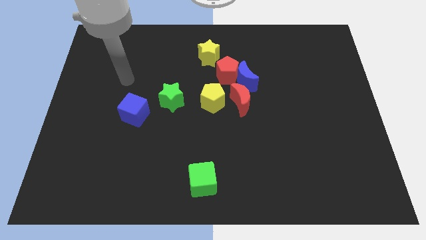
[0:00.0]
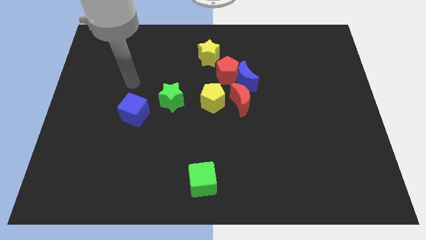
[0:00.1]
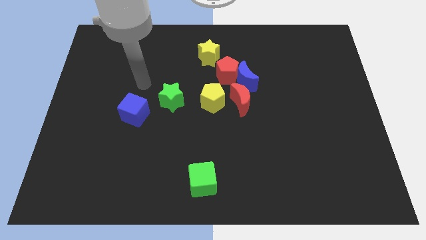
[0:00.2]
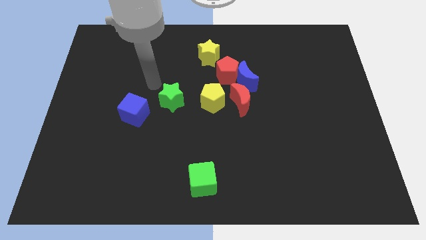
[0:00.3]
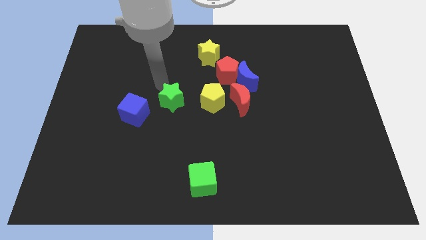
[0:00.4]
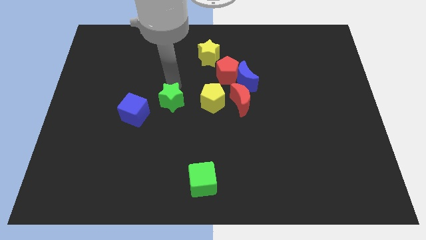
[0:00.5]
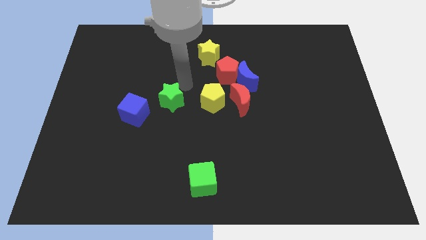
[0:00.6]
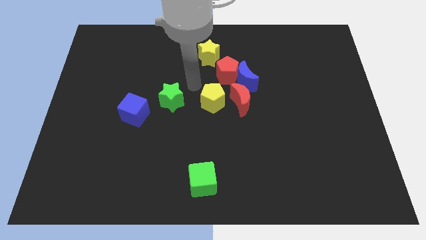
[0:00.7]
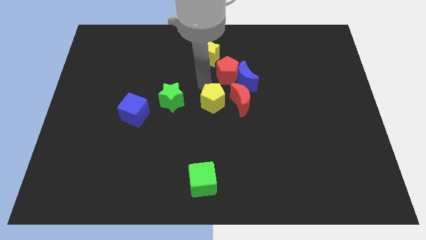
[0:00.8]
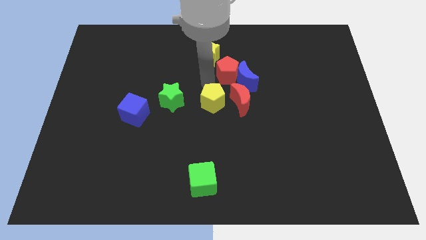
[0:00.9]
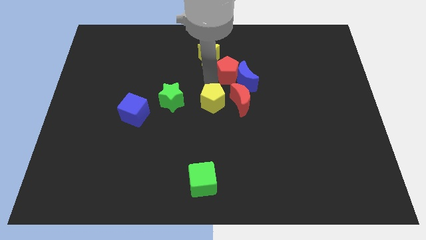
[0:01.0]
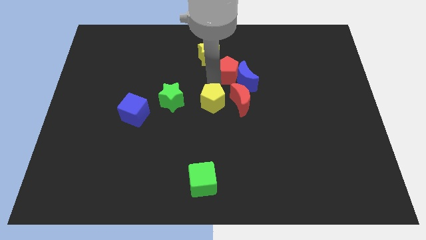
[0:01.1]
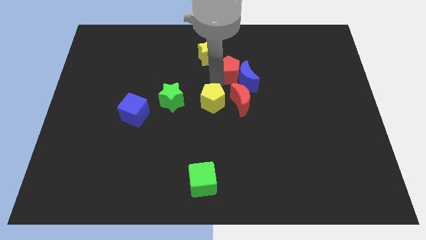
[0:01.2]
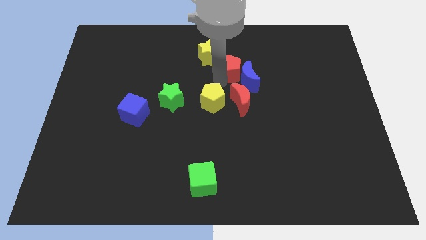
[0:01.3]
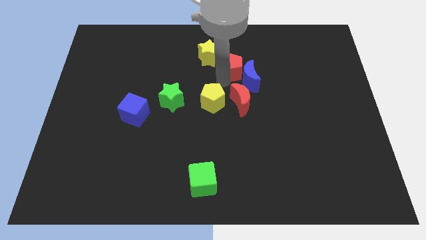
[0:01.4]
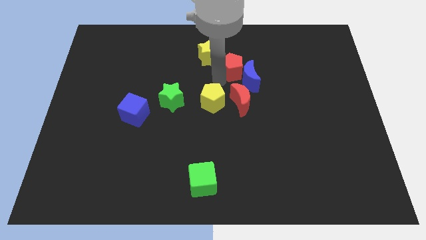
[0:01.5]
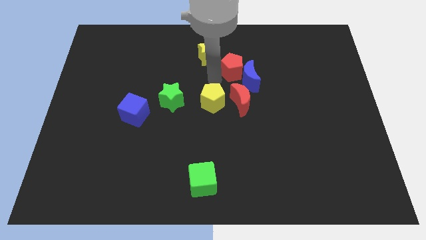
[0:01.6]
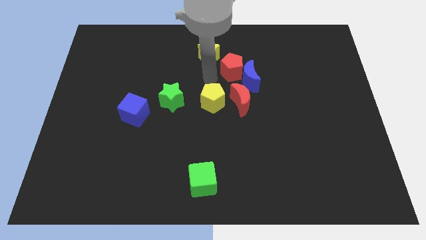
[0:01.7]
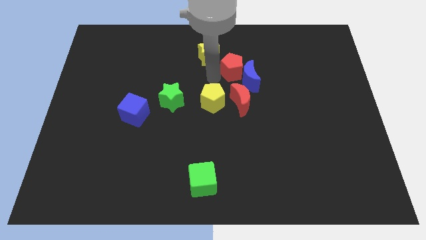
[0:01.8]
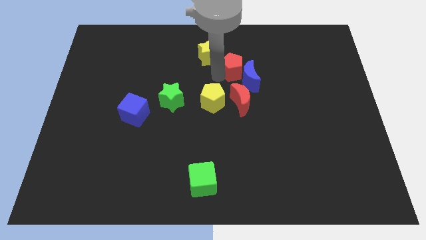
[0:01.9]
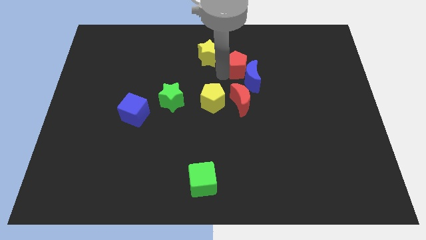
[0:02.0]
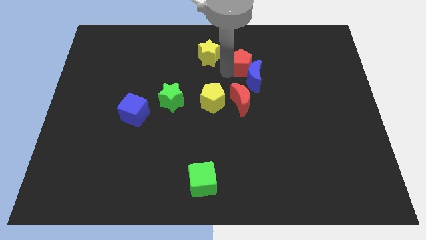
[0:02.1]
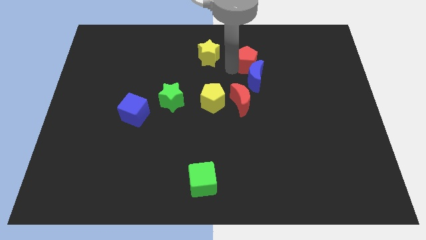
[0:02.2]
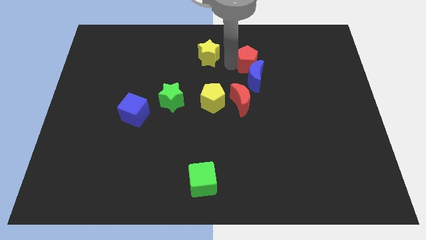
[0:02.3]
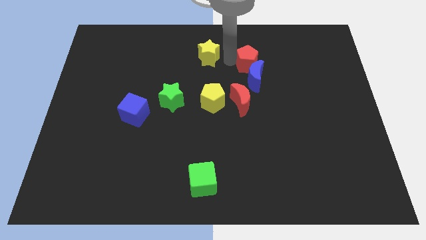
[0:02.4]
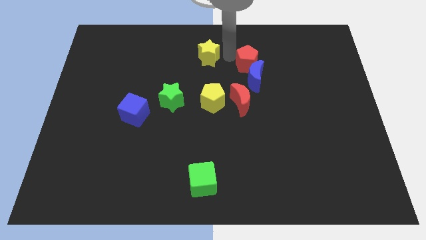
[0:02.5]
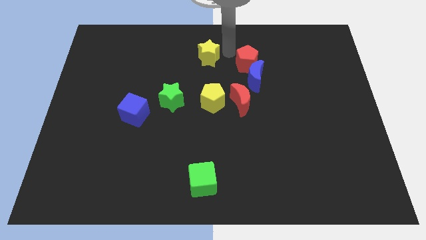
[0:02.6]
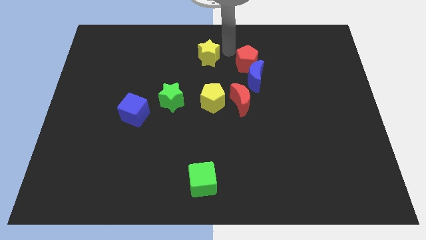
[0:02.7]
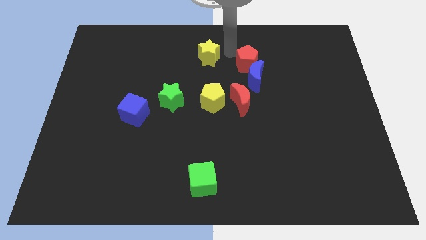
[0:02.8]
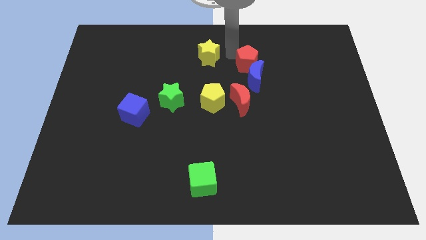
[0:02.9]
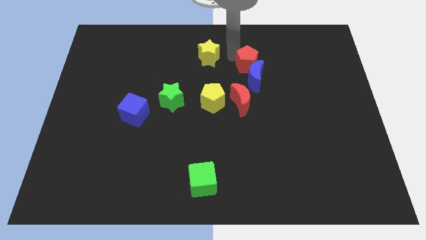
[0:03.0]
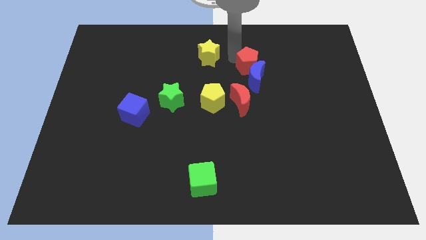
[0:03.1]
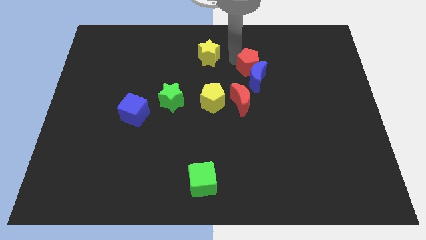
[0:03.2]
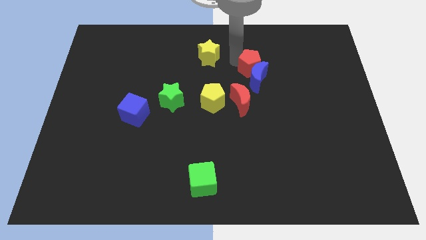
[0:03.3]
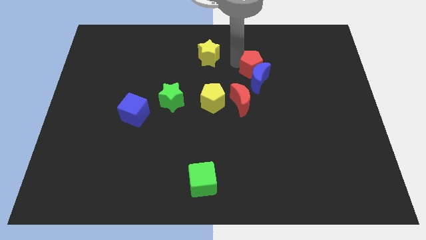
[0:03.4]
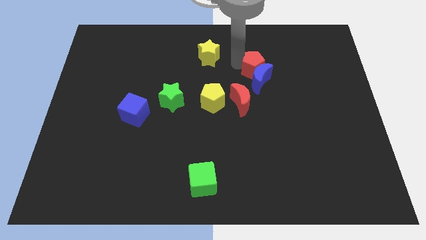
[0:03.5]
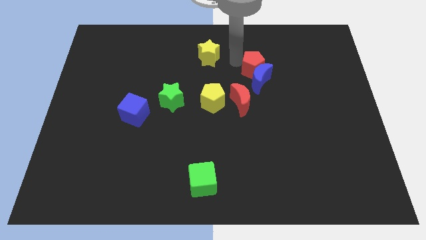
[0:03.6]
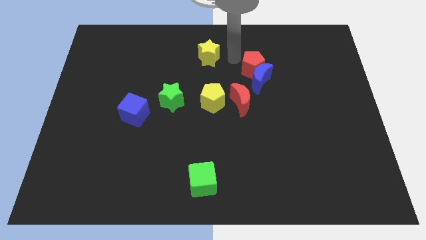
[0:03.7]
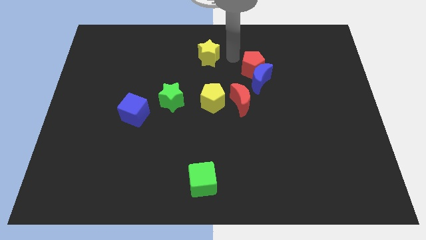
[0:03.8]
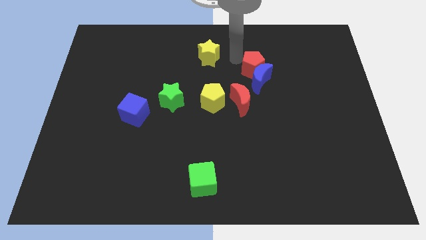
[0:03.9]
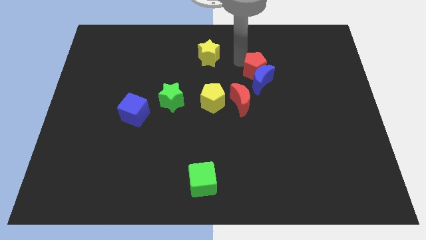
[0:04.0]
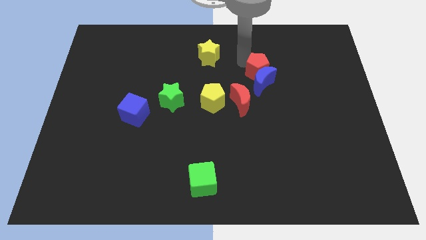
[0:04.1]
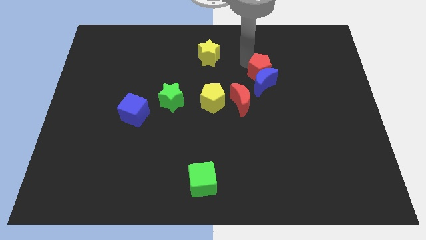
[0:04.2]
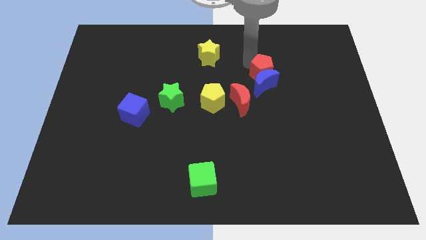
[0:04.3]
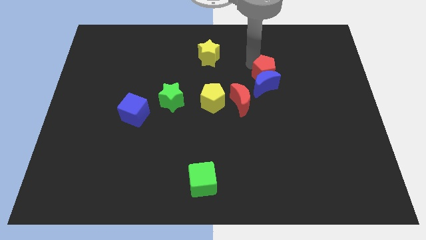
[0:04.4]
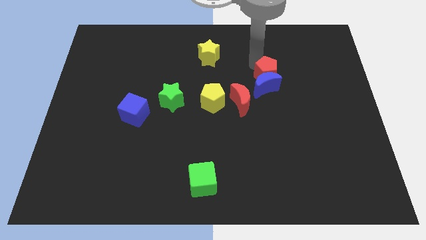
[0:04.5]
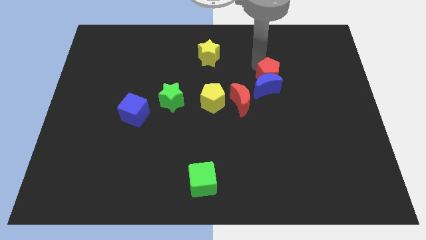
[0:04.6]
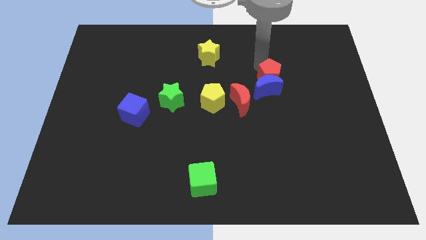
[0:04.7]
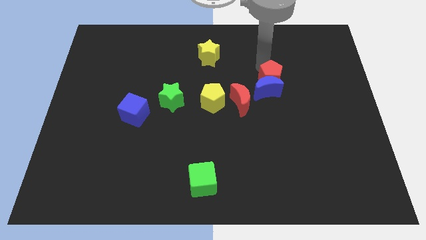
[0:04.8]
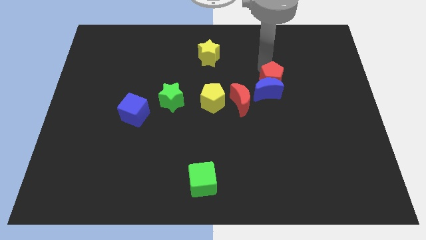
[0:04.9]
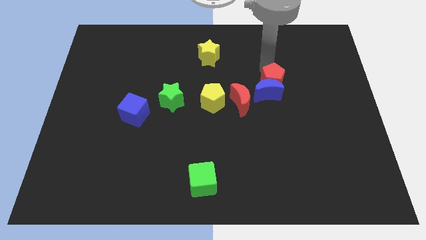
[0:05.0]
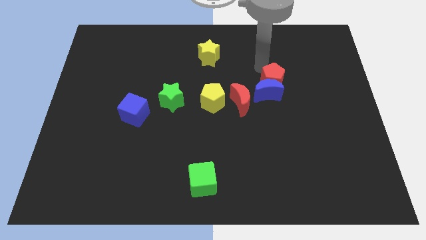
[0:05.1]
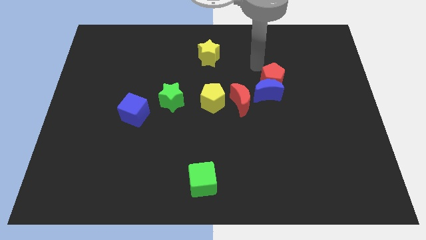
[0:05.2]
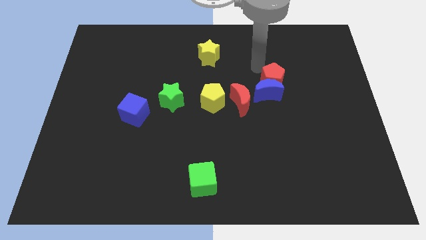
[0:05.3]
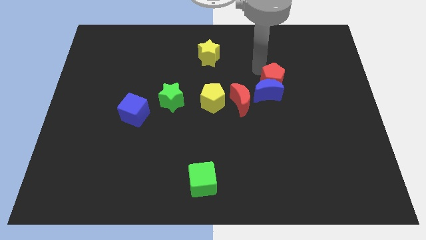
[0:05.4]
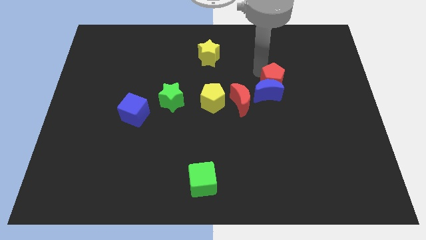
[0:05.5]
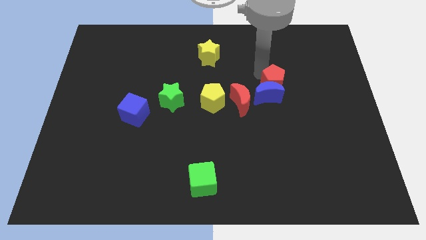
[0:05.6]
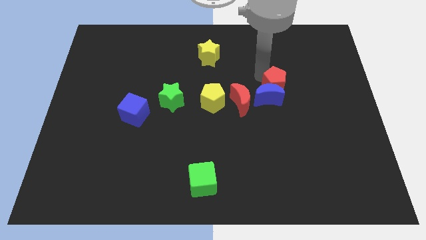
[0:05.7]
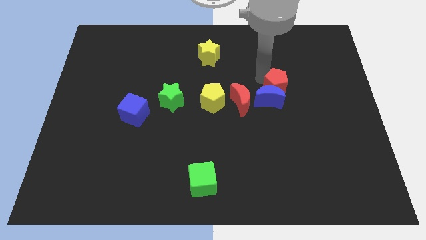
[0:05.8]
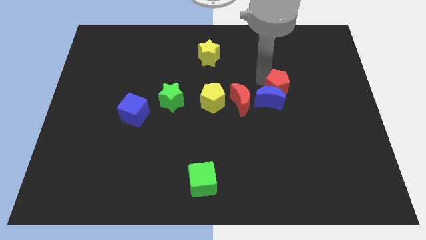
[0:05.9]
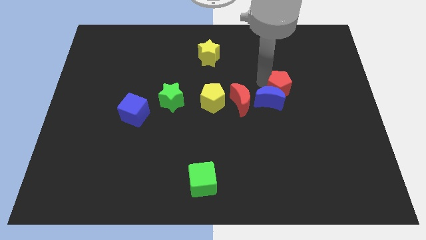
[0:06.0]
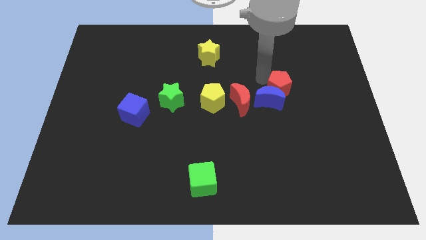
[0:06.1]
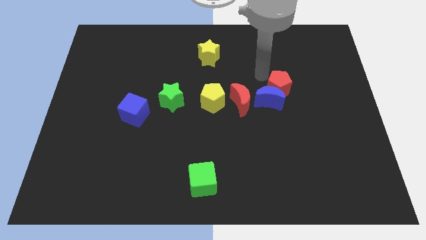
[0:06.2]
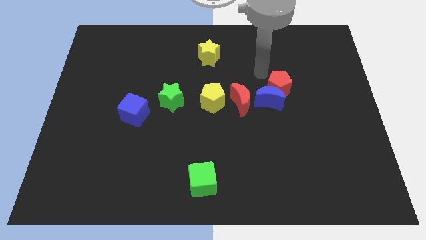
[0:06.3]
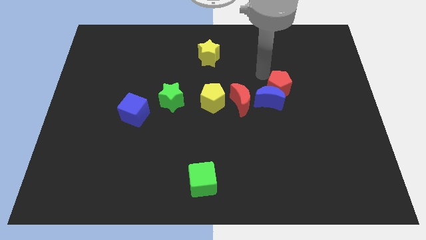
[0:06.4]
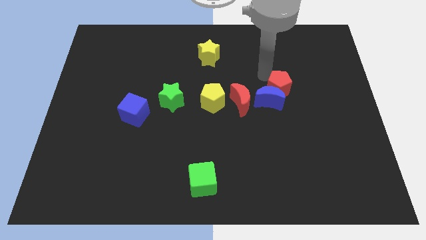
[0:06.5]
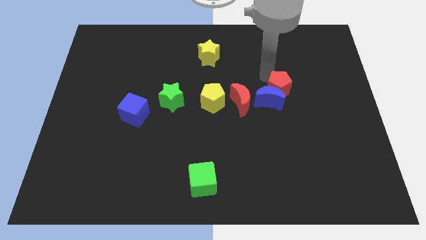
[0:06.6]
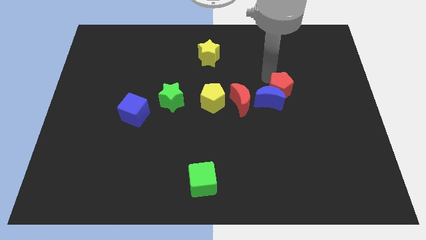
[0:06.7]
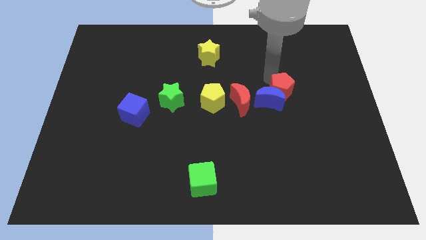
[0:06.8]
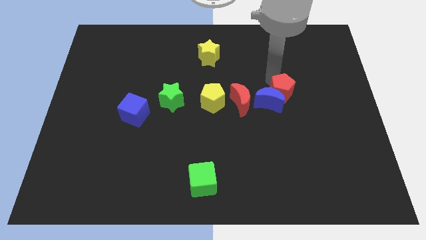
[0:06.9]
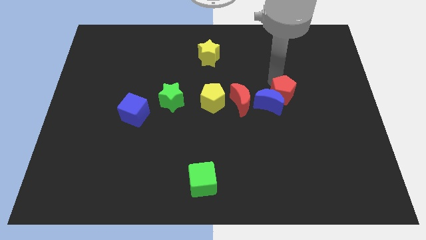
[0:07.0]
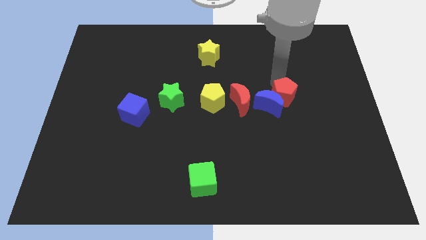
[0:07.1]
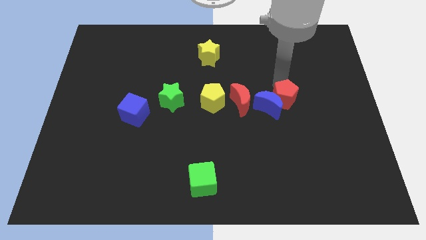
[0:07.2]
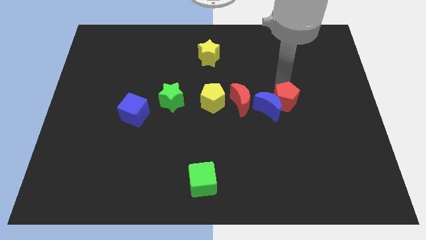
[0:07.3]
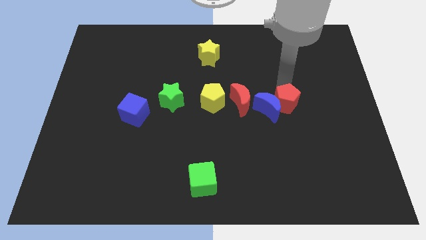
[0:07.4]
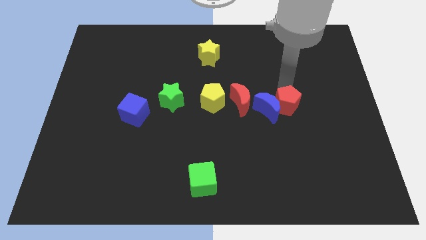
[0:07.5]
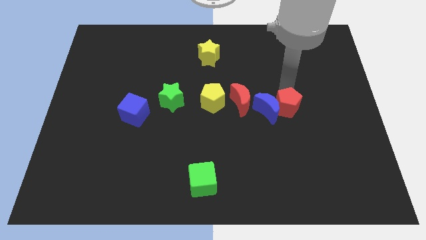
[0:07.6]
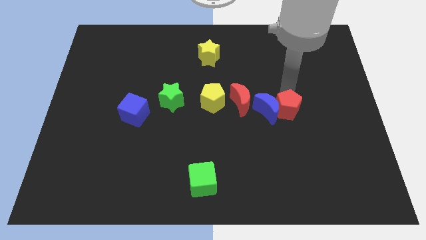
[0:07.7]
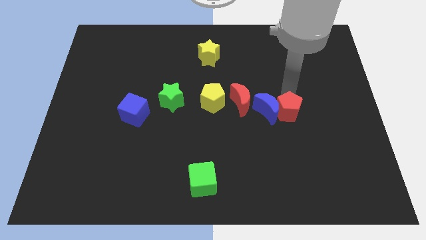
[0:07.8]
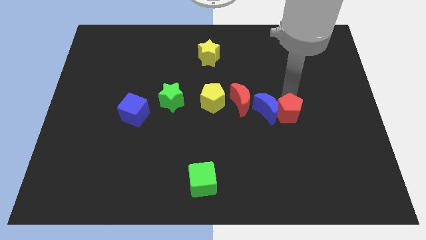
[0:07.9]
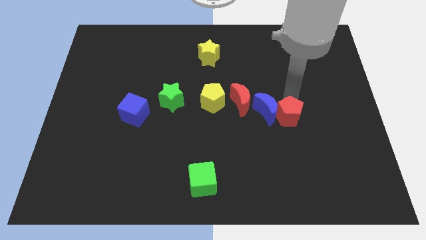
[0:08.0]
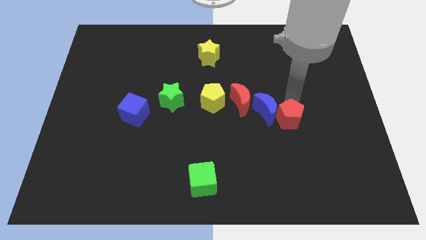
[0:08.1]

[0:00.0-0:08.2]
move the red pentagon downwards and then to the right
